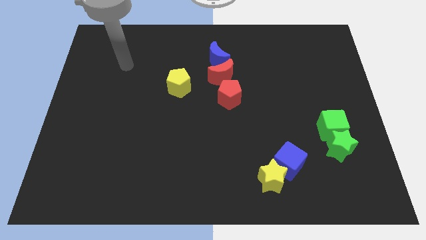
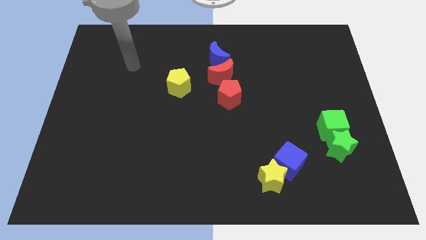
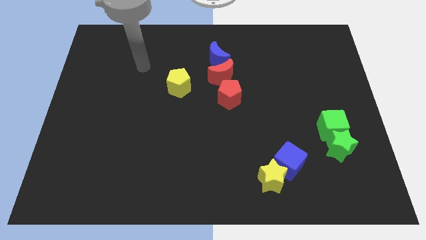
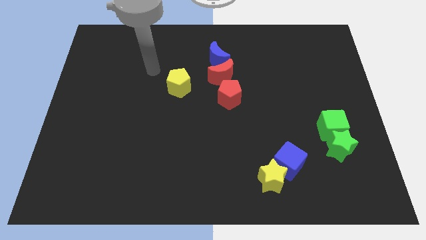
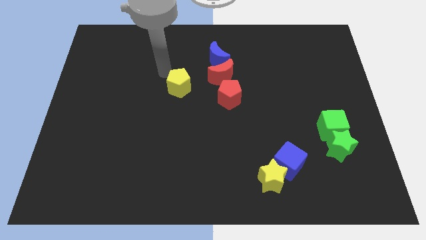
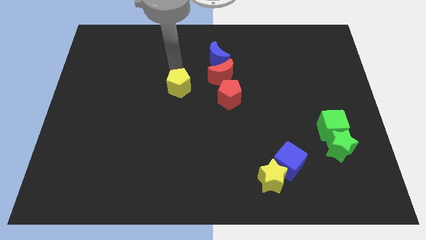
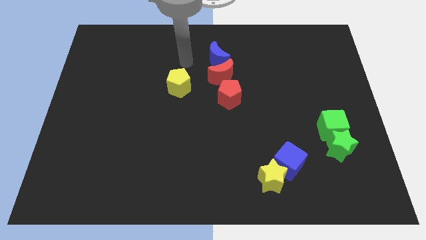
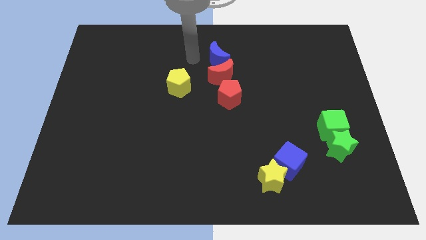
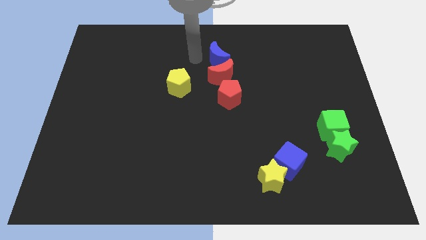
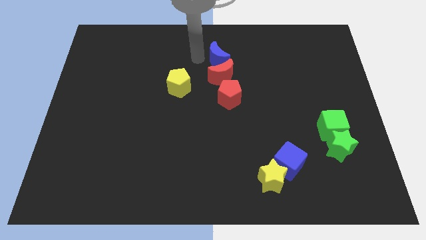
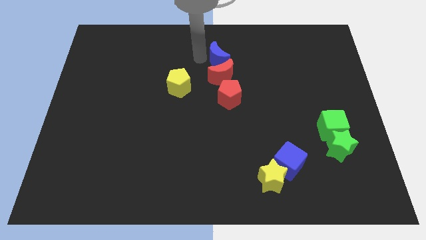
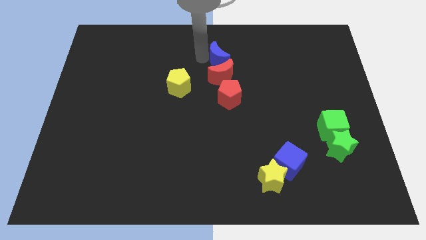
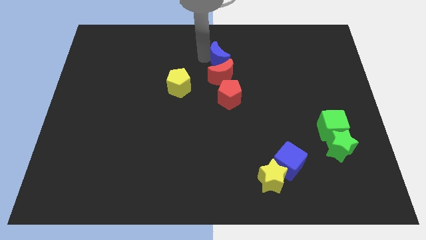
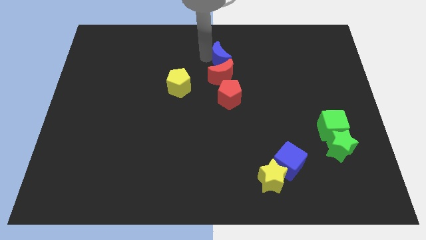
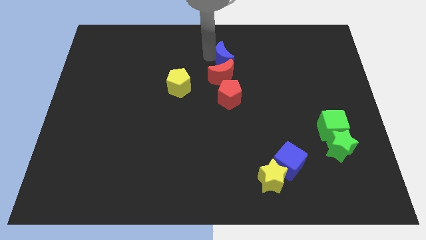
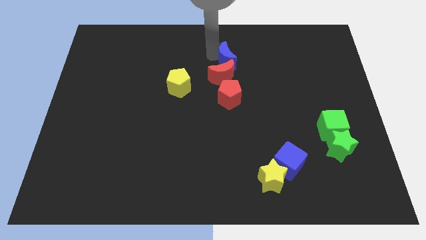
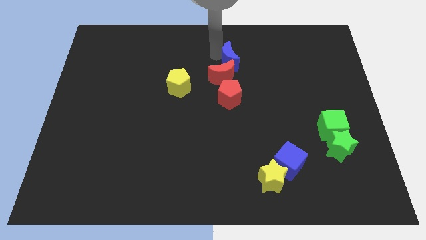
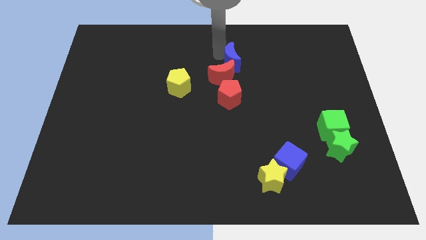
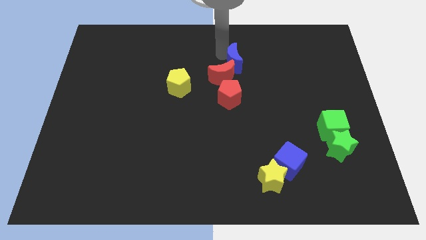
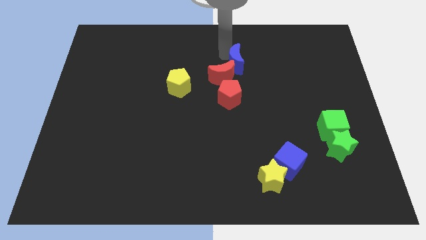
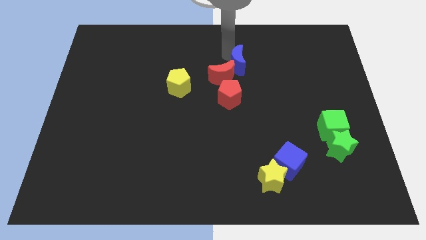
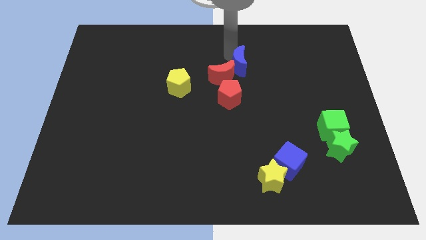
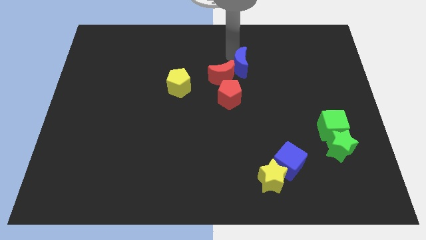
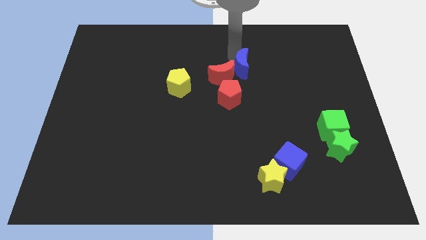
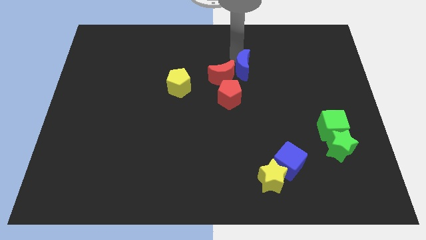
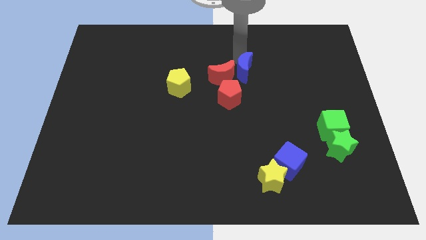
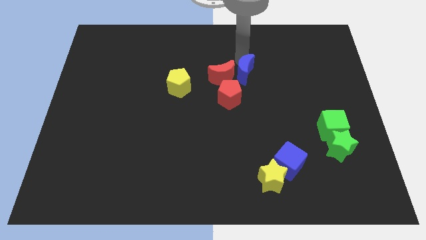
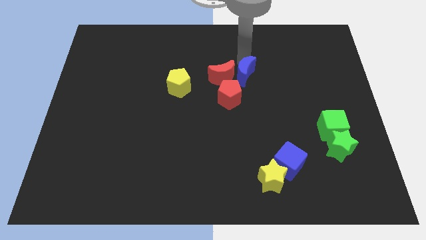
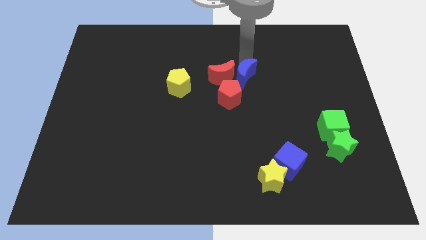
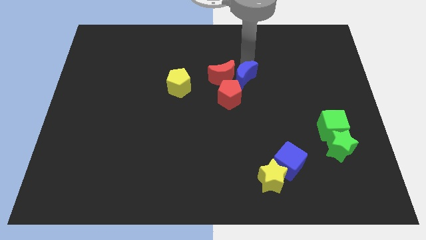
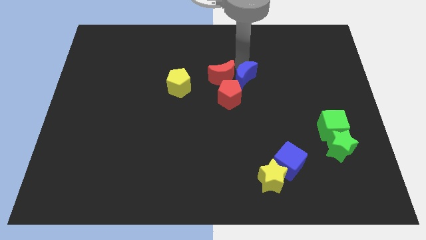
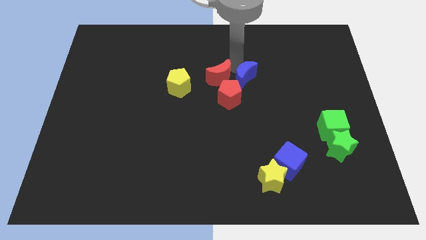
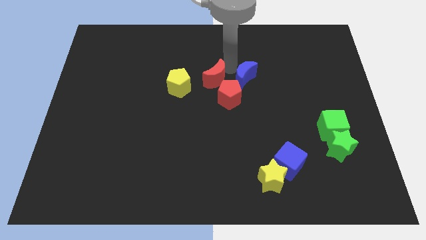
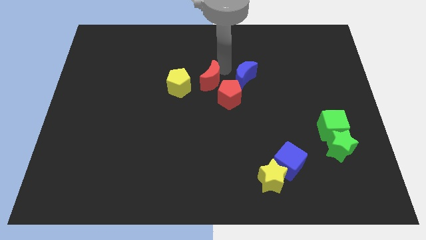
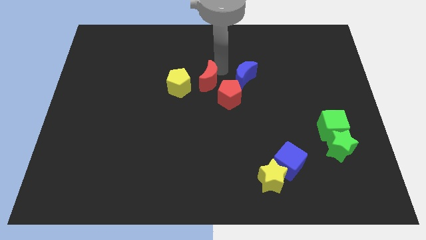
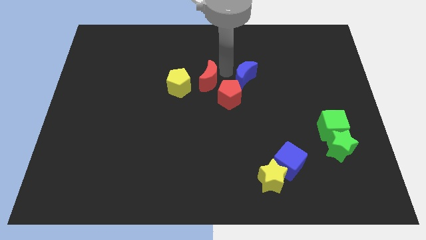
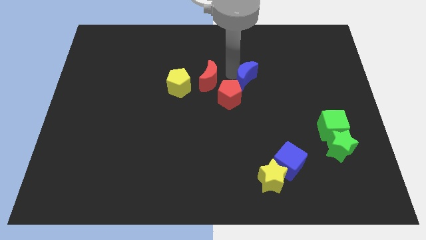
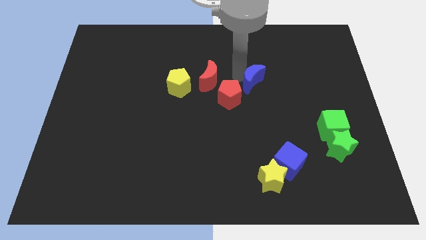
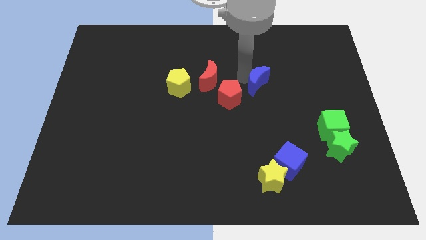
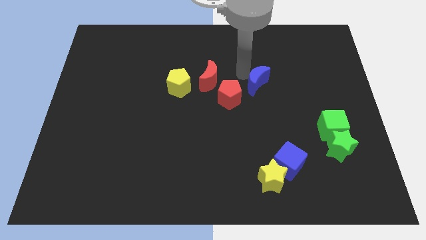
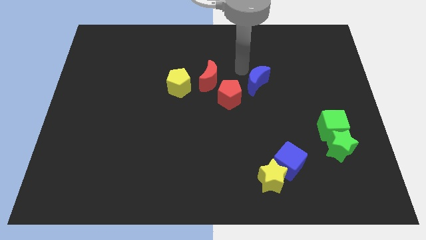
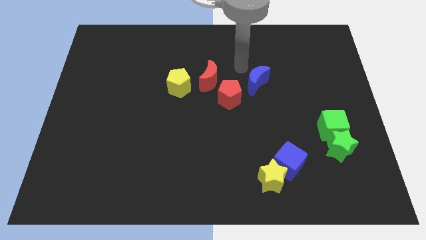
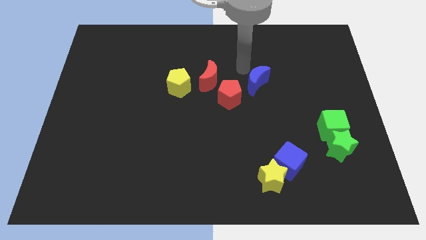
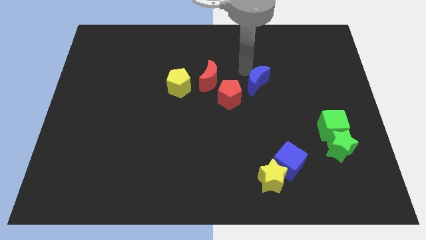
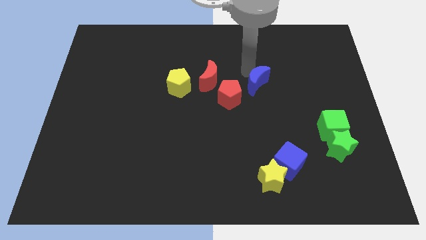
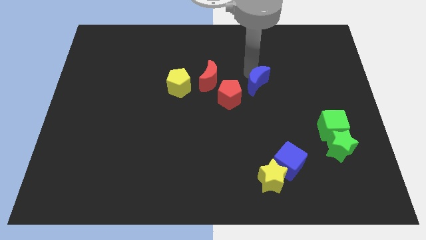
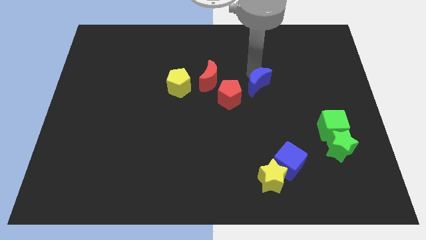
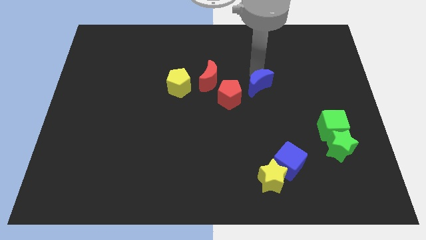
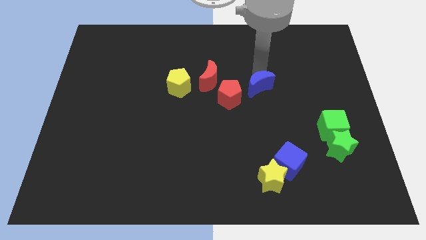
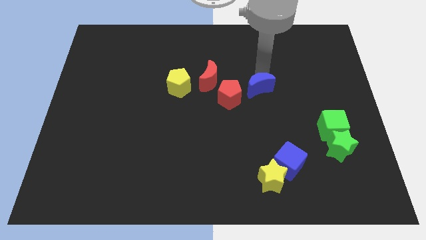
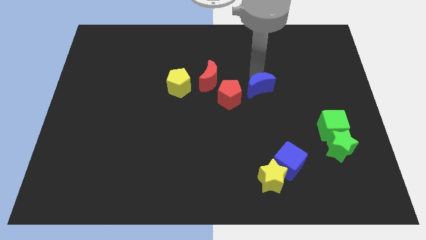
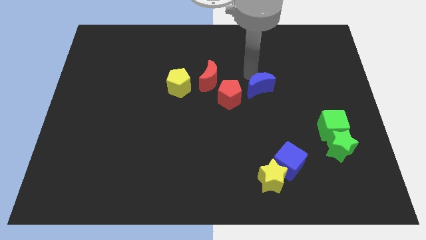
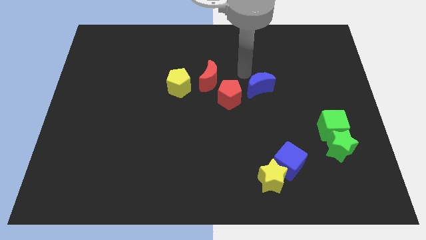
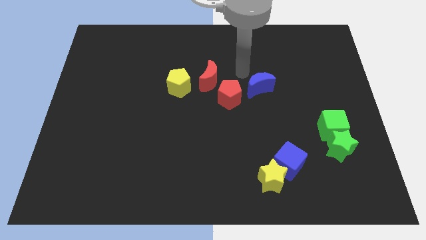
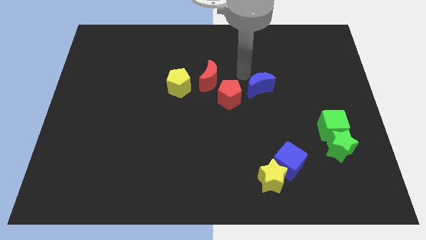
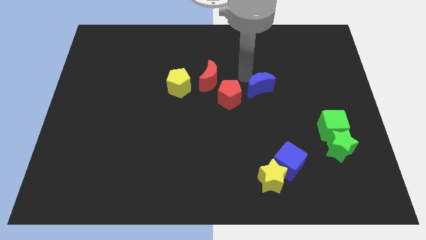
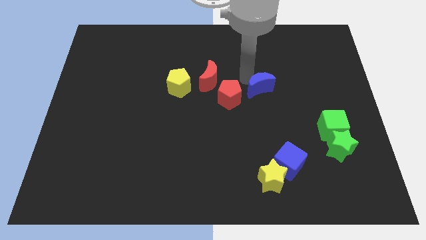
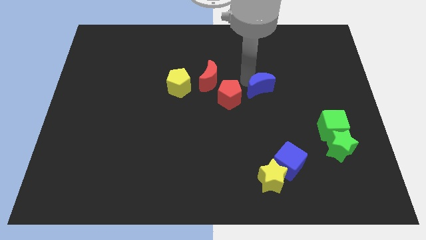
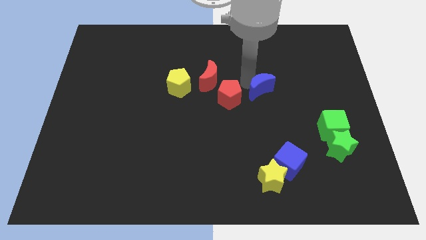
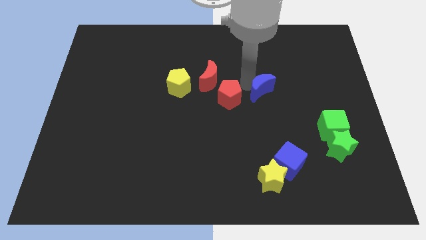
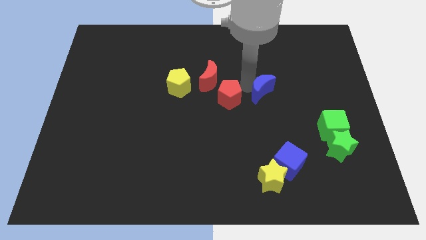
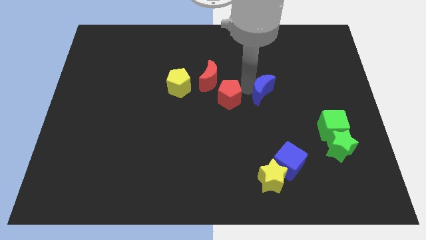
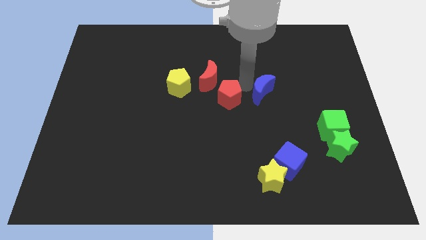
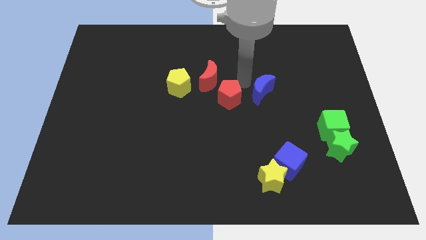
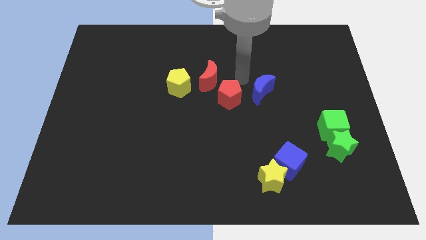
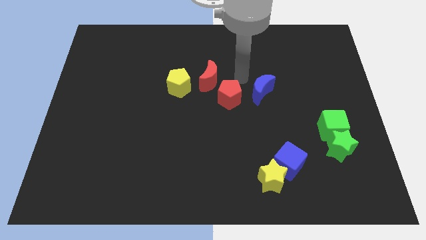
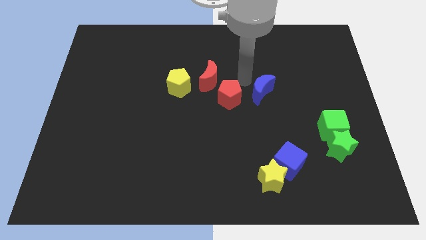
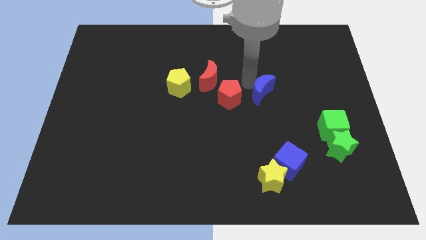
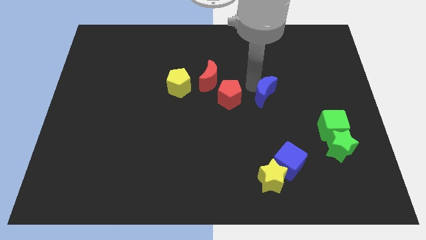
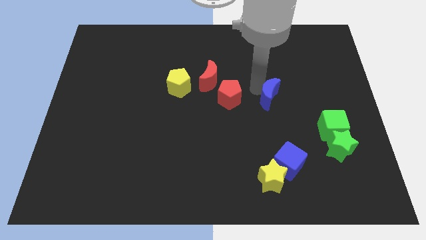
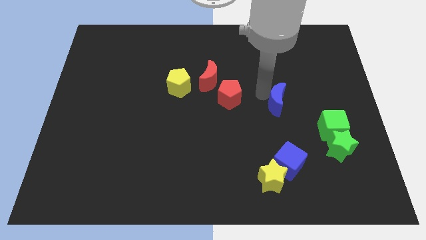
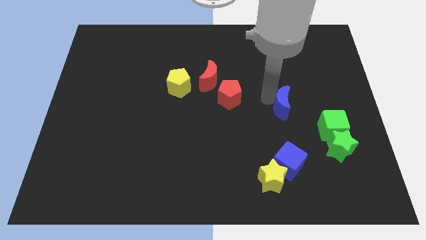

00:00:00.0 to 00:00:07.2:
put the blue moon to the top left side of the green cube
